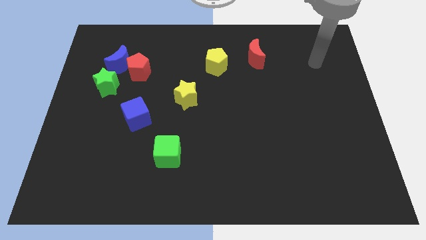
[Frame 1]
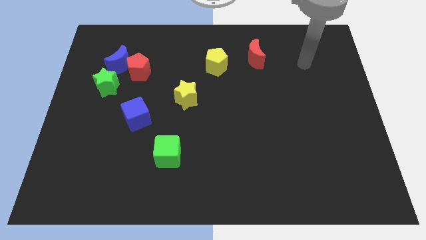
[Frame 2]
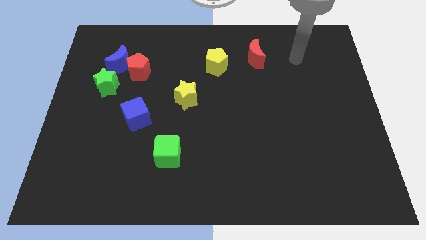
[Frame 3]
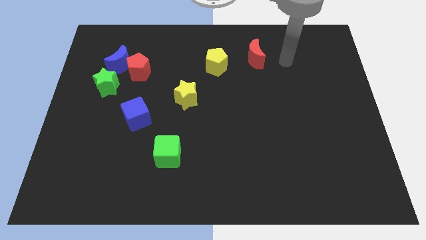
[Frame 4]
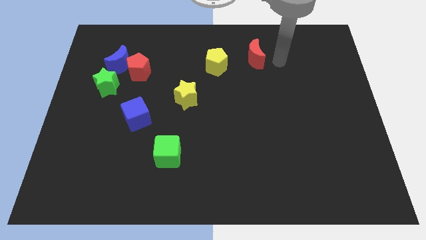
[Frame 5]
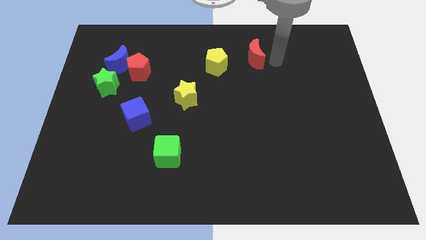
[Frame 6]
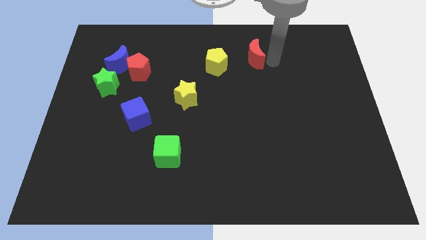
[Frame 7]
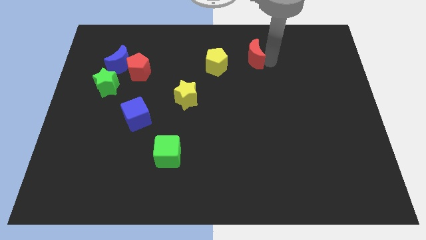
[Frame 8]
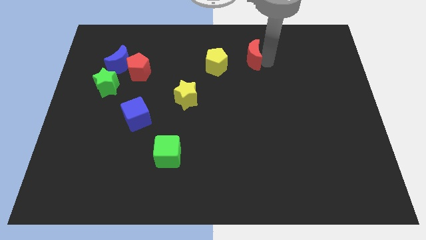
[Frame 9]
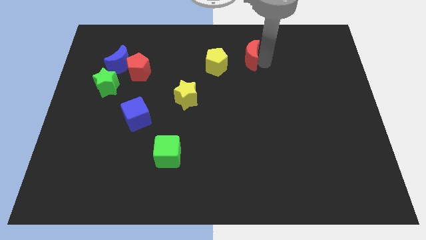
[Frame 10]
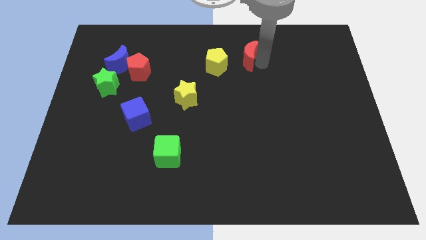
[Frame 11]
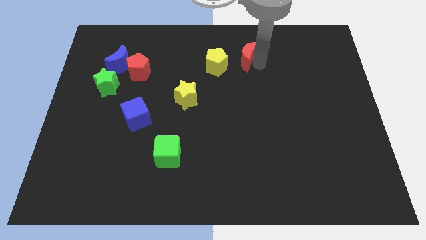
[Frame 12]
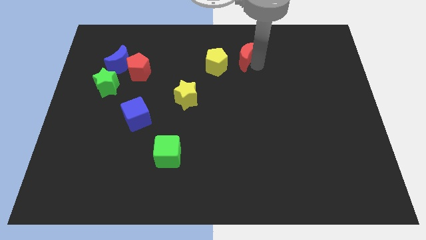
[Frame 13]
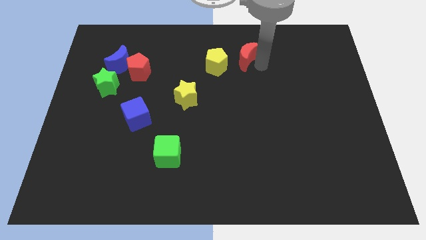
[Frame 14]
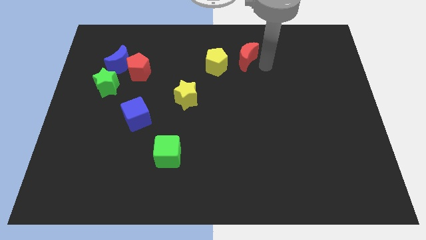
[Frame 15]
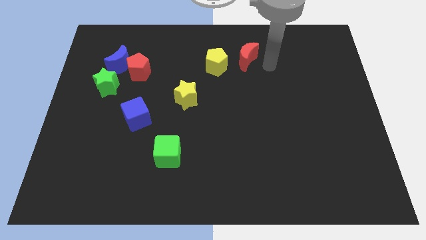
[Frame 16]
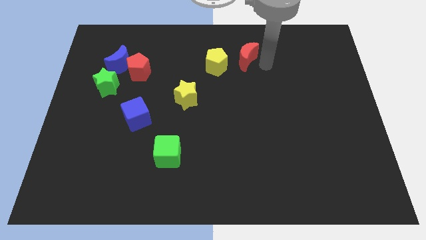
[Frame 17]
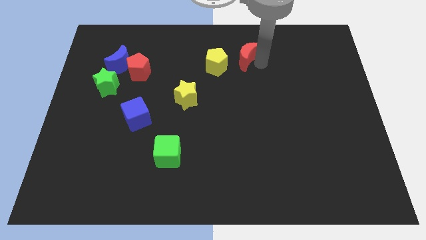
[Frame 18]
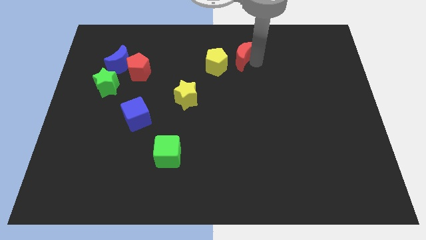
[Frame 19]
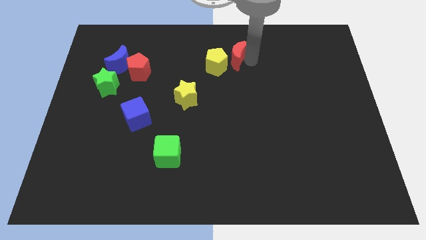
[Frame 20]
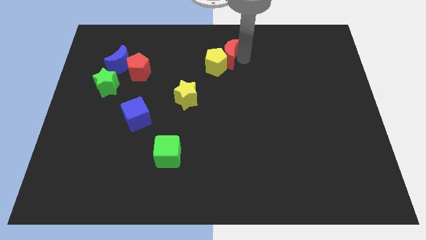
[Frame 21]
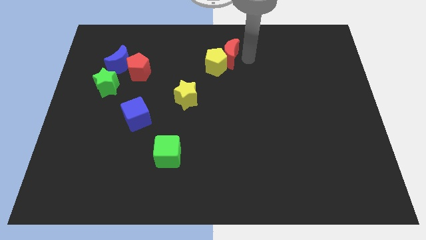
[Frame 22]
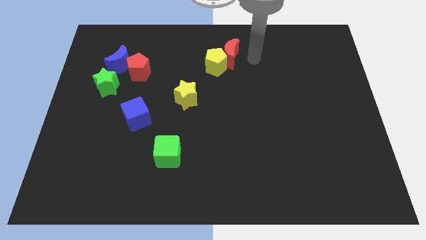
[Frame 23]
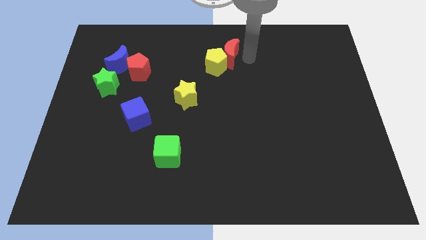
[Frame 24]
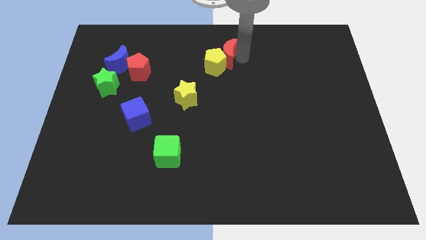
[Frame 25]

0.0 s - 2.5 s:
move the red moon left slightly

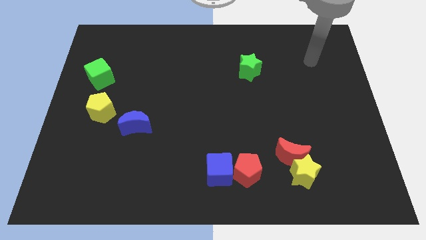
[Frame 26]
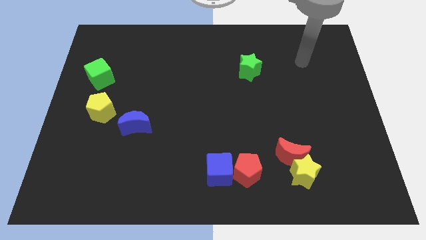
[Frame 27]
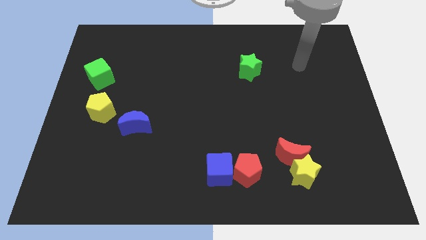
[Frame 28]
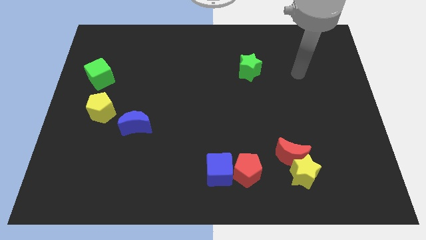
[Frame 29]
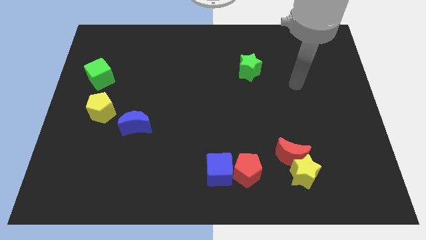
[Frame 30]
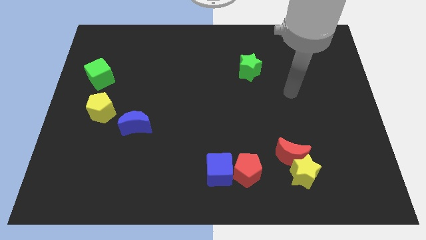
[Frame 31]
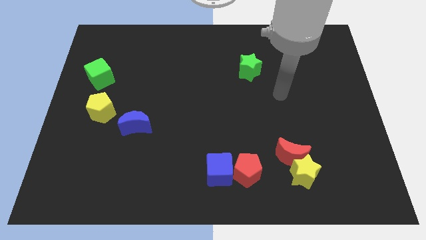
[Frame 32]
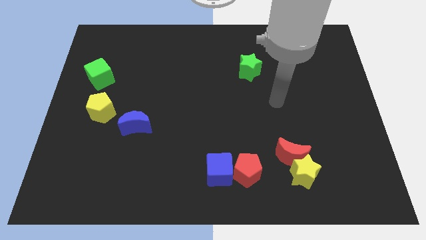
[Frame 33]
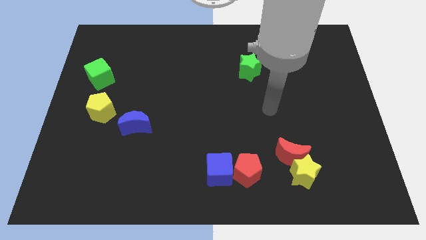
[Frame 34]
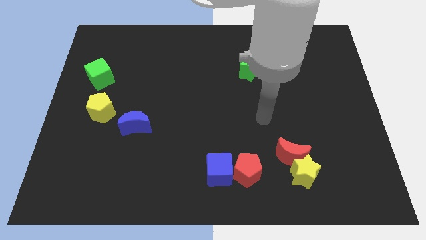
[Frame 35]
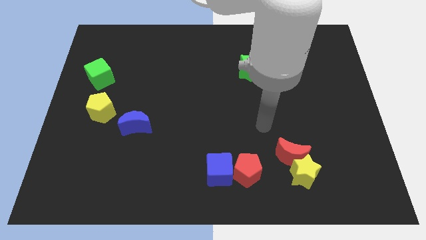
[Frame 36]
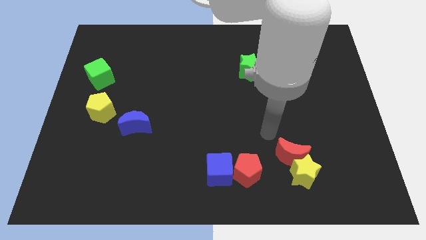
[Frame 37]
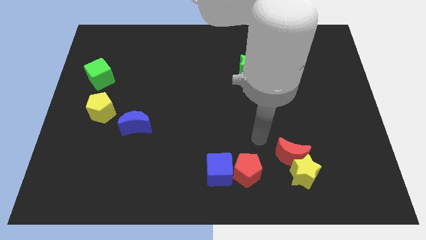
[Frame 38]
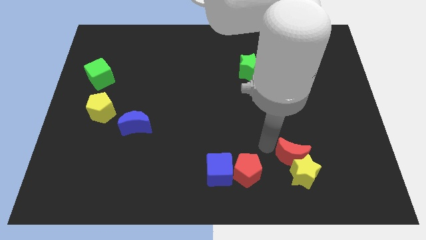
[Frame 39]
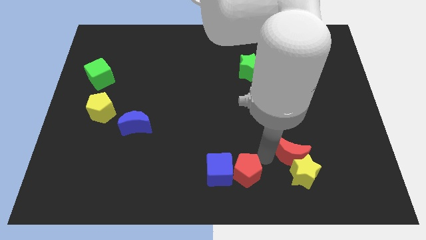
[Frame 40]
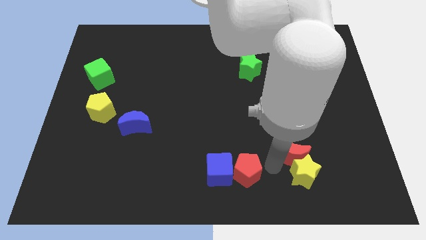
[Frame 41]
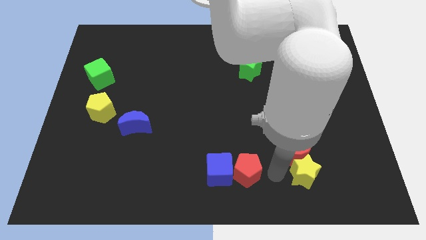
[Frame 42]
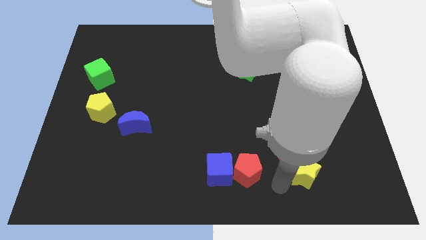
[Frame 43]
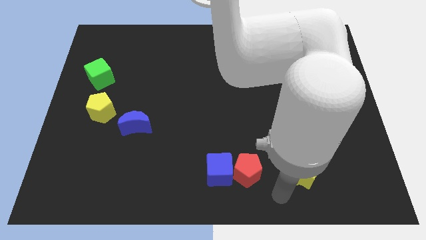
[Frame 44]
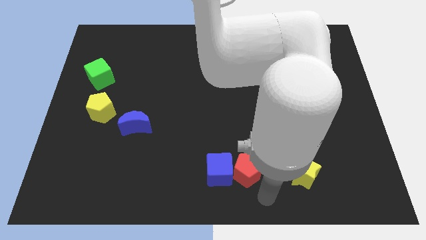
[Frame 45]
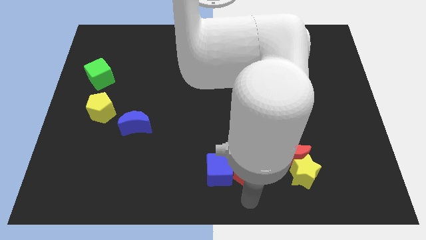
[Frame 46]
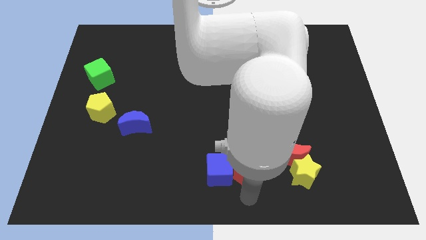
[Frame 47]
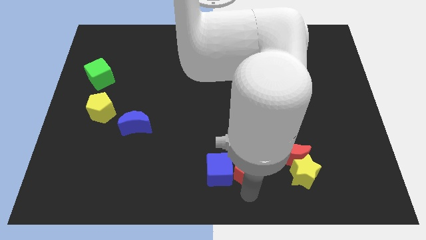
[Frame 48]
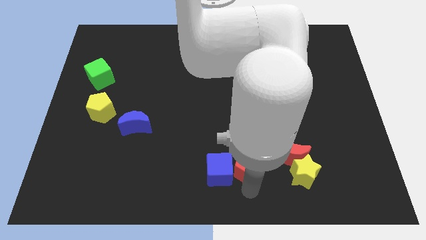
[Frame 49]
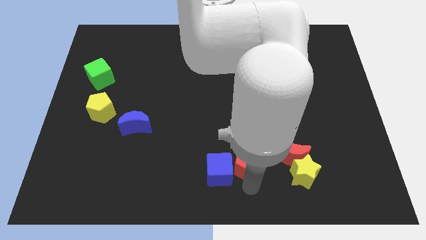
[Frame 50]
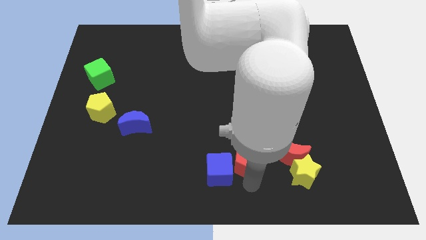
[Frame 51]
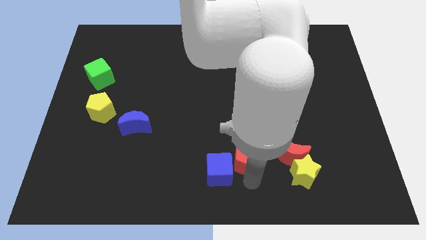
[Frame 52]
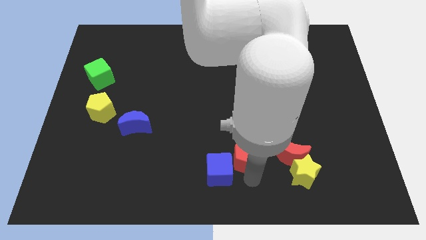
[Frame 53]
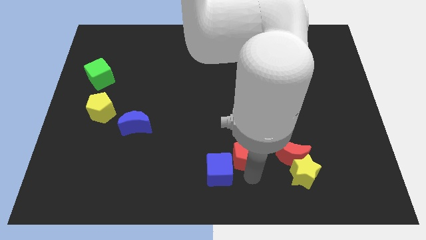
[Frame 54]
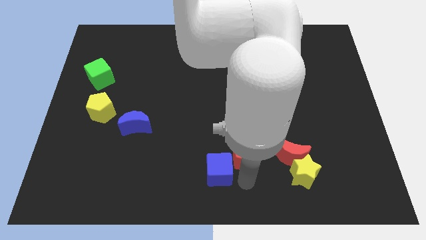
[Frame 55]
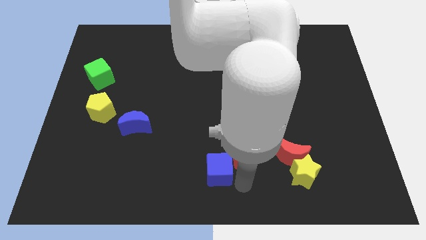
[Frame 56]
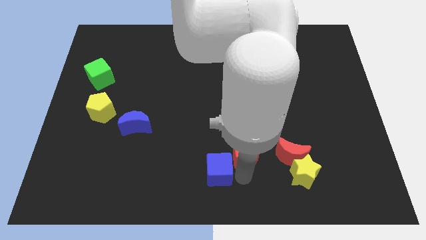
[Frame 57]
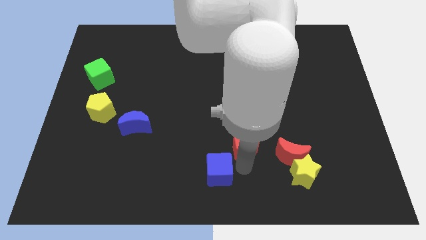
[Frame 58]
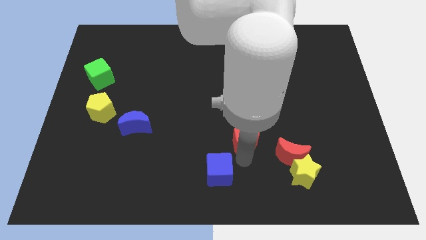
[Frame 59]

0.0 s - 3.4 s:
slide the red pentagon up a little bit

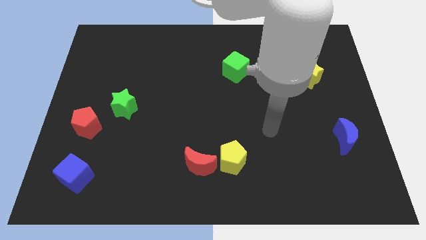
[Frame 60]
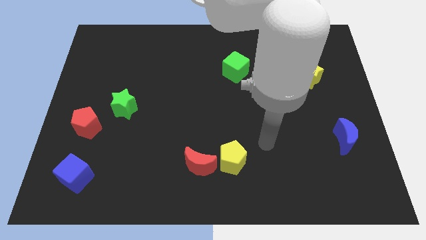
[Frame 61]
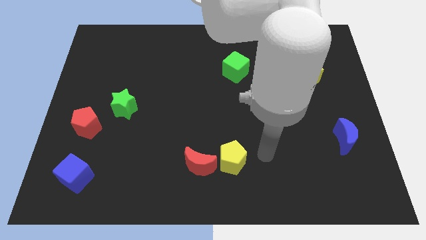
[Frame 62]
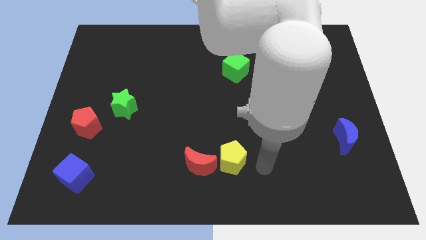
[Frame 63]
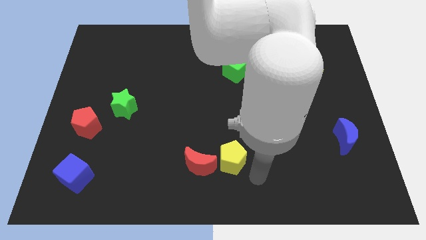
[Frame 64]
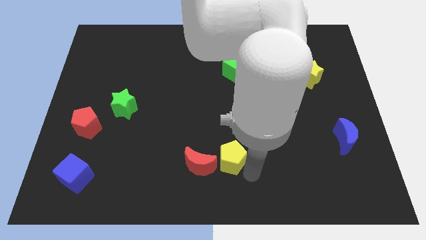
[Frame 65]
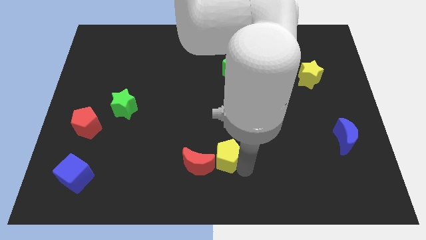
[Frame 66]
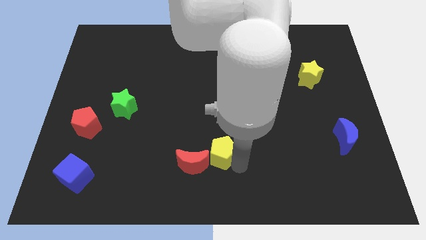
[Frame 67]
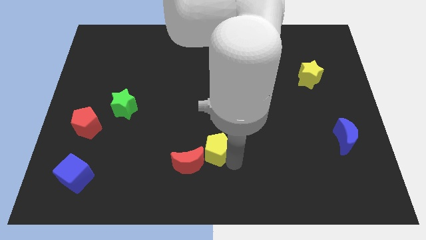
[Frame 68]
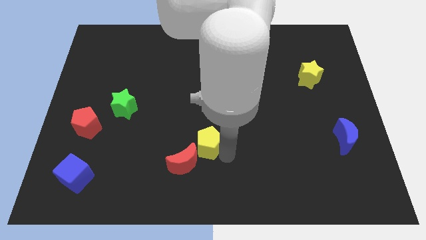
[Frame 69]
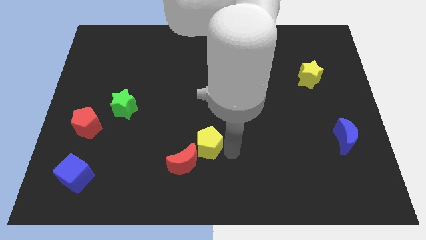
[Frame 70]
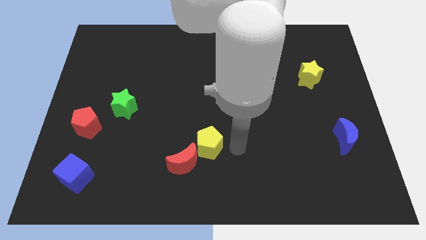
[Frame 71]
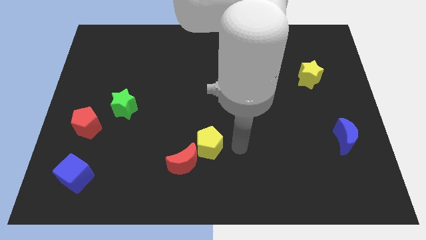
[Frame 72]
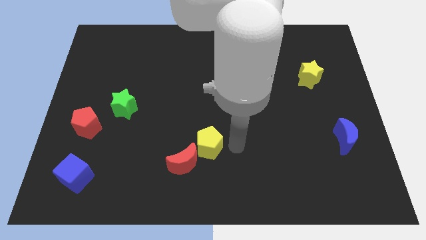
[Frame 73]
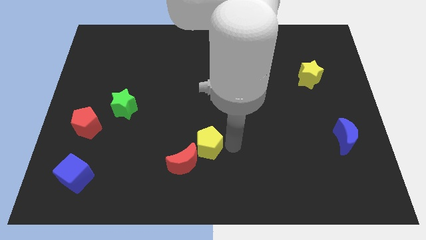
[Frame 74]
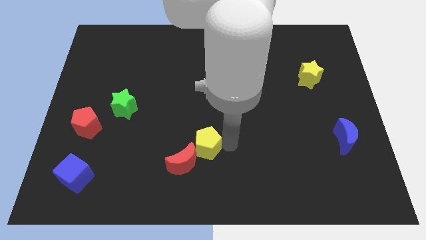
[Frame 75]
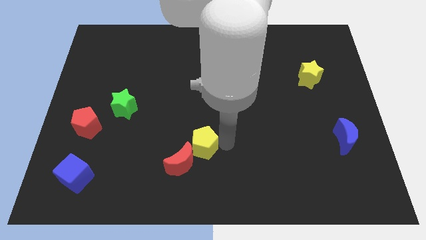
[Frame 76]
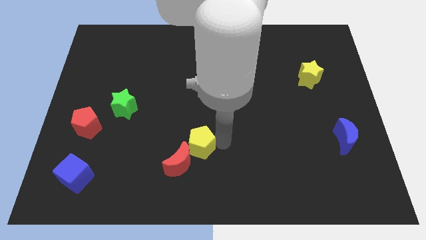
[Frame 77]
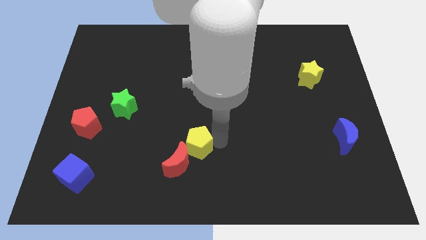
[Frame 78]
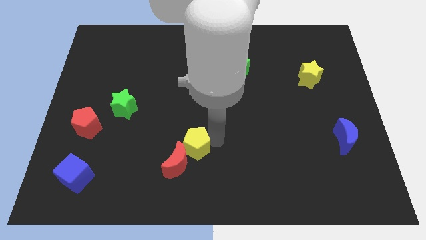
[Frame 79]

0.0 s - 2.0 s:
slightly move the yellow pentagon to the left
